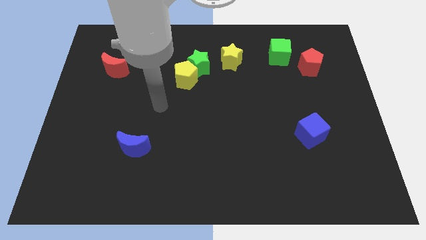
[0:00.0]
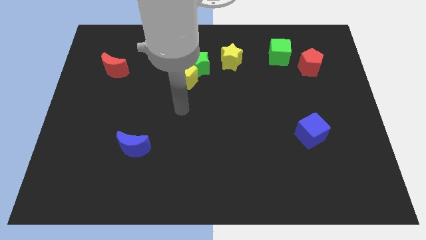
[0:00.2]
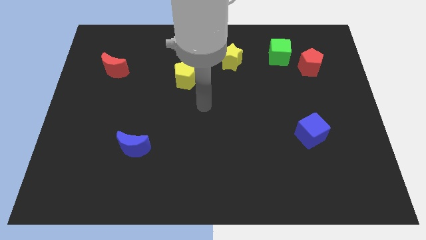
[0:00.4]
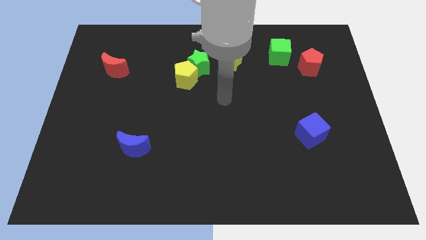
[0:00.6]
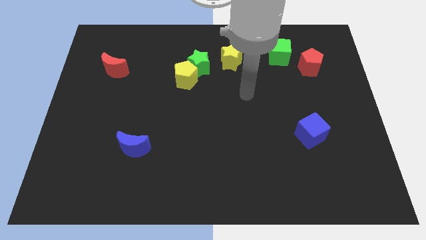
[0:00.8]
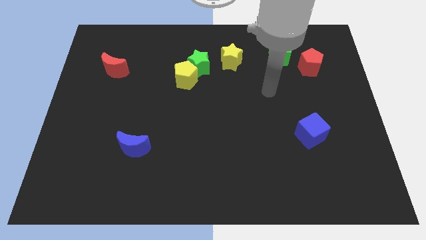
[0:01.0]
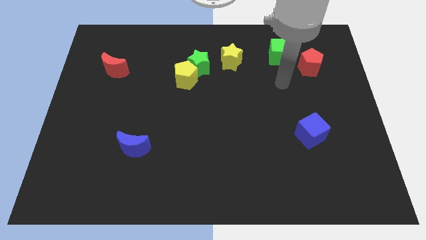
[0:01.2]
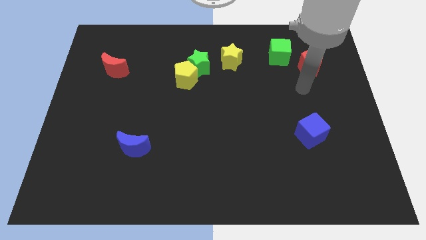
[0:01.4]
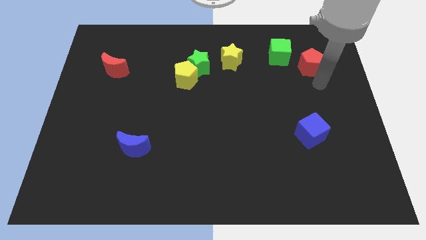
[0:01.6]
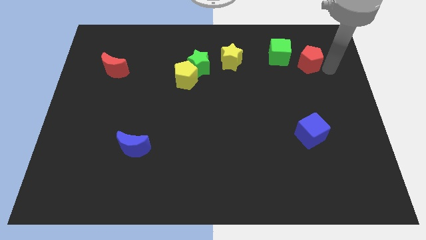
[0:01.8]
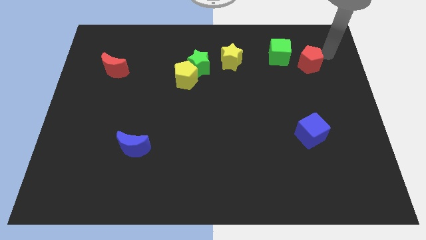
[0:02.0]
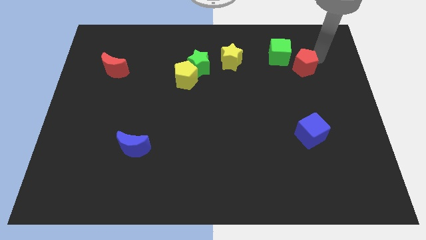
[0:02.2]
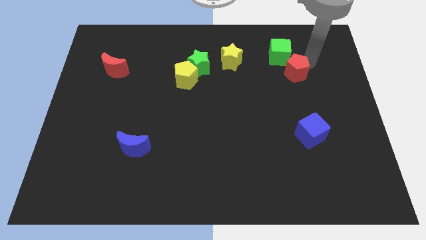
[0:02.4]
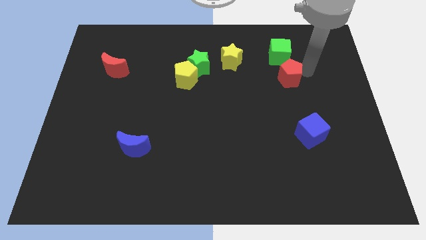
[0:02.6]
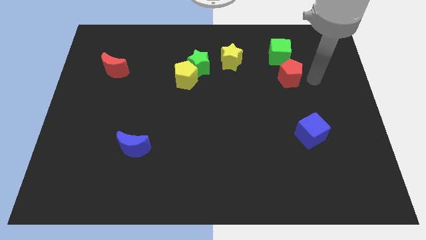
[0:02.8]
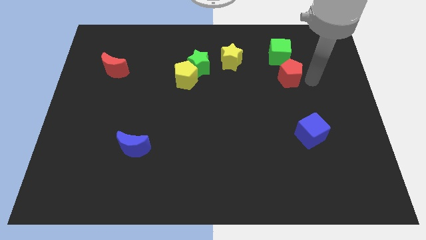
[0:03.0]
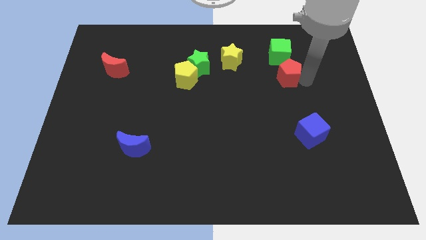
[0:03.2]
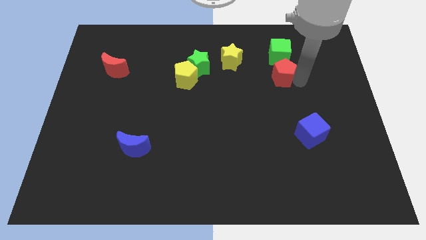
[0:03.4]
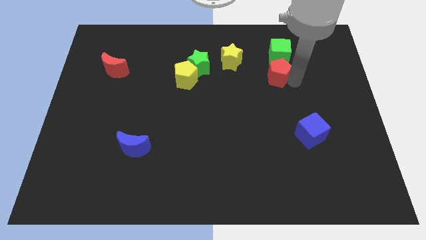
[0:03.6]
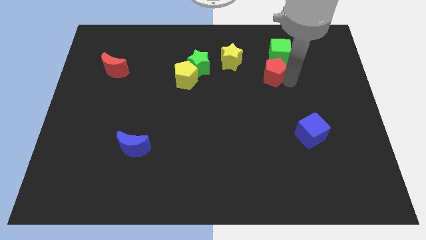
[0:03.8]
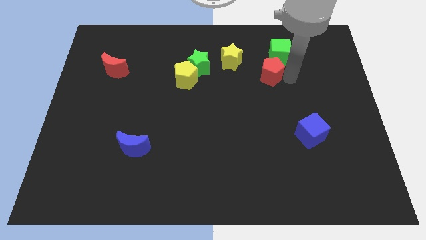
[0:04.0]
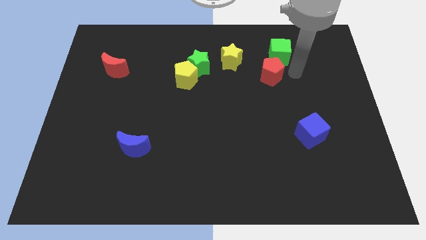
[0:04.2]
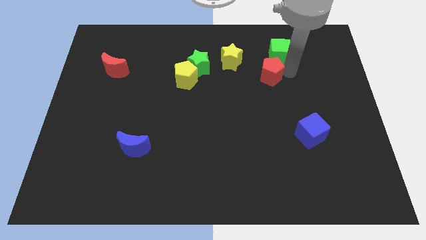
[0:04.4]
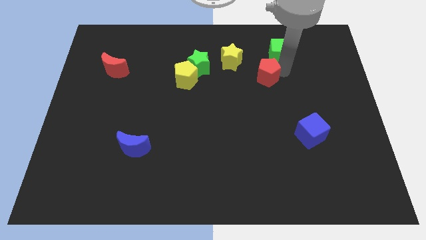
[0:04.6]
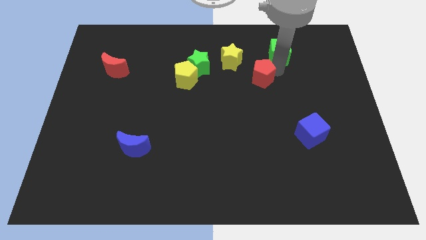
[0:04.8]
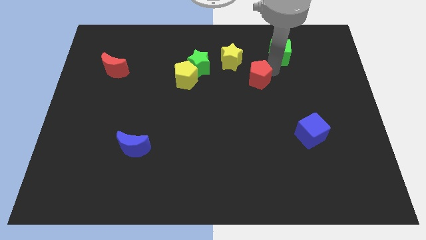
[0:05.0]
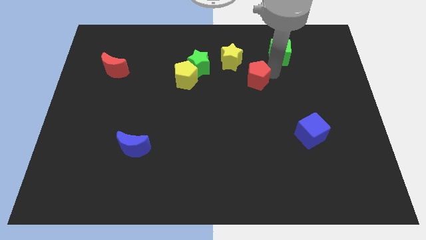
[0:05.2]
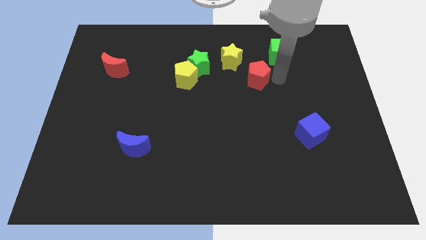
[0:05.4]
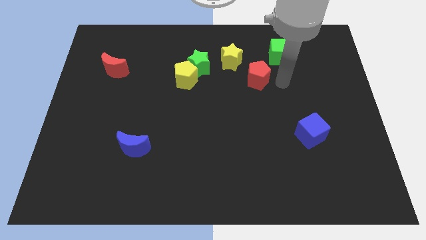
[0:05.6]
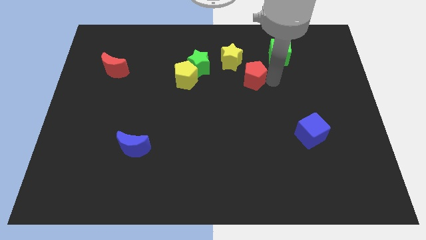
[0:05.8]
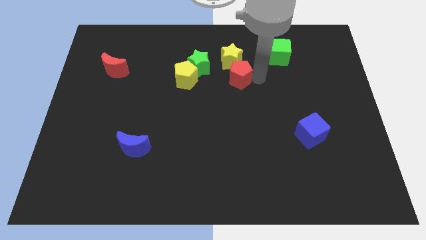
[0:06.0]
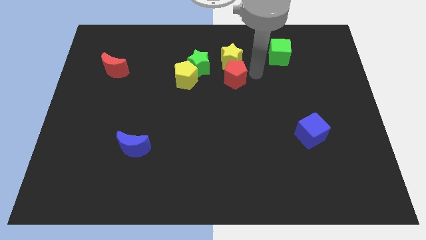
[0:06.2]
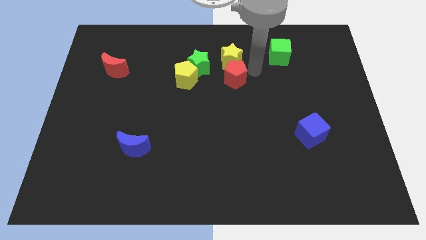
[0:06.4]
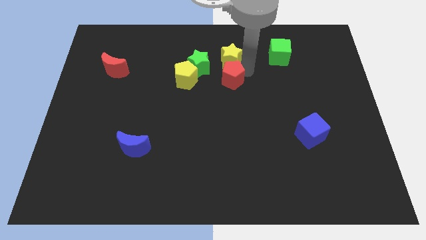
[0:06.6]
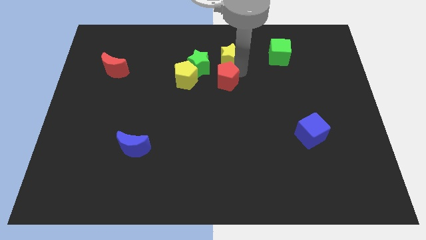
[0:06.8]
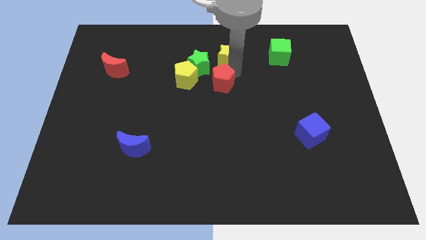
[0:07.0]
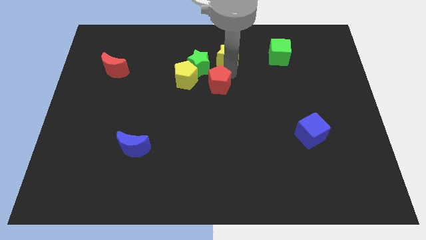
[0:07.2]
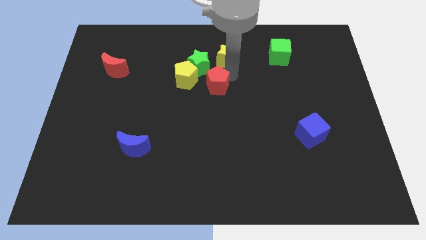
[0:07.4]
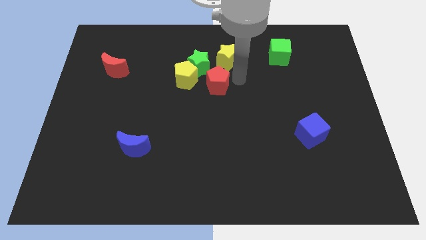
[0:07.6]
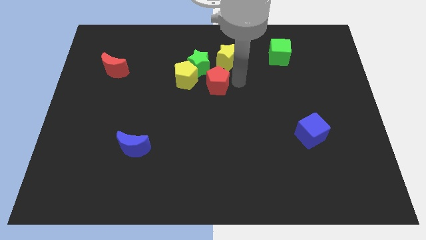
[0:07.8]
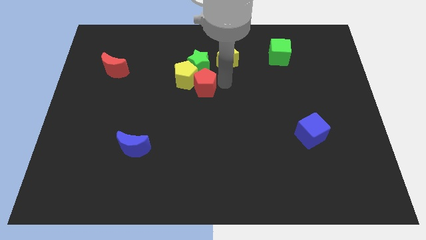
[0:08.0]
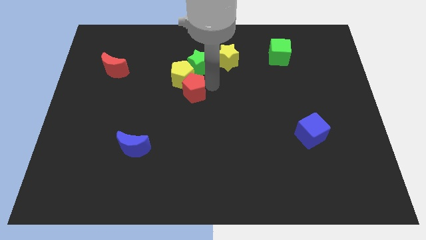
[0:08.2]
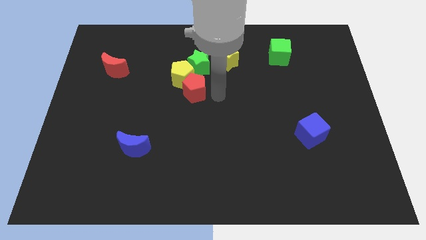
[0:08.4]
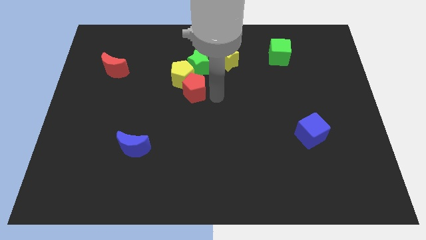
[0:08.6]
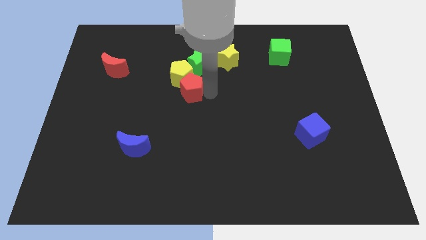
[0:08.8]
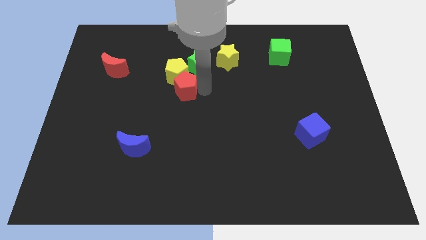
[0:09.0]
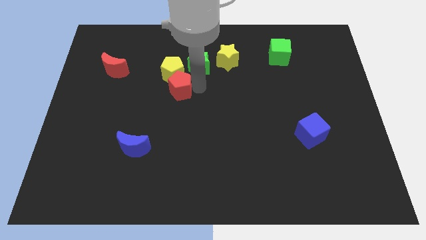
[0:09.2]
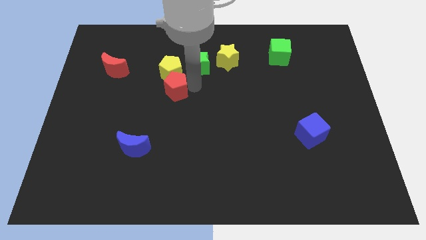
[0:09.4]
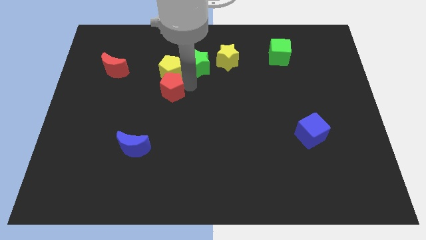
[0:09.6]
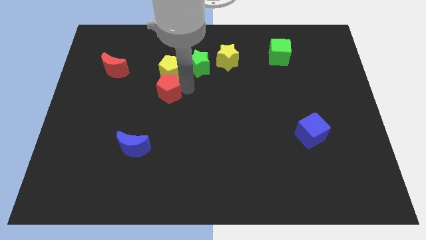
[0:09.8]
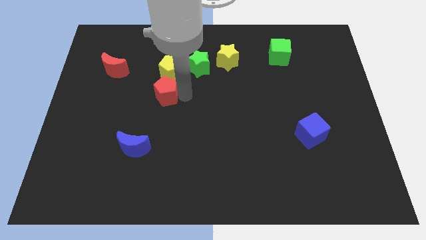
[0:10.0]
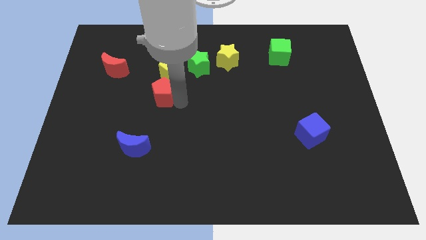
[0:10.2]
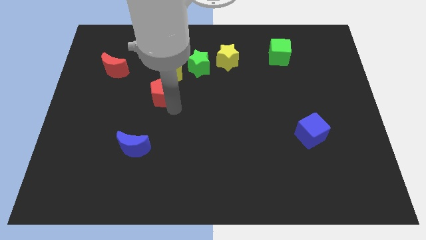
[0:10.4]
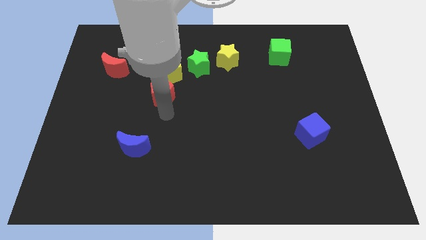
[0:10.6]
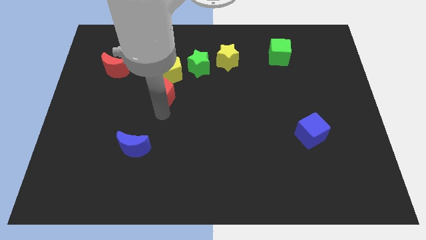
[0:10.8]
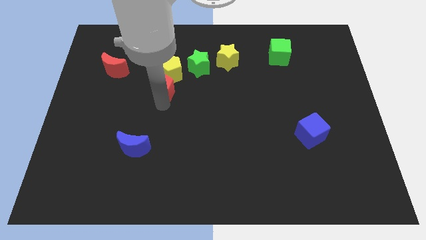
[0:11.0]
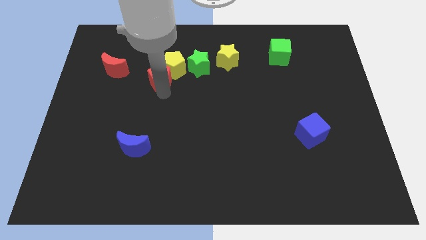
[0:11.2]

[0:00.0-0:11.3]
push the red pentagon right of the red moon

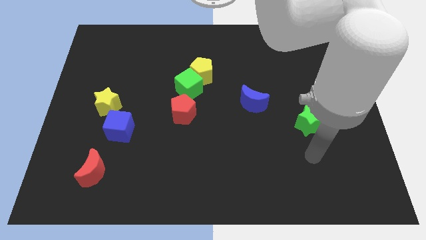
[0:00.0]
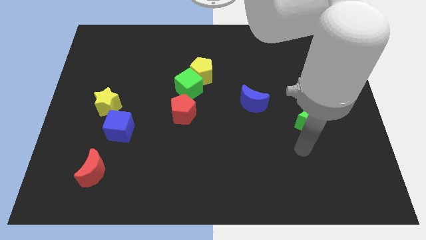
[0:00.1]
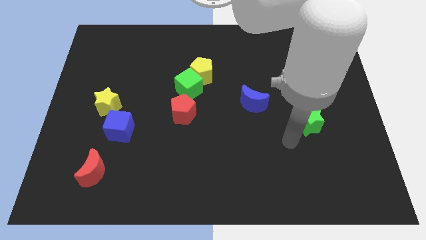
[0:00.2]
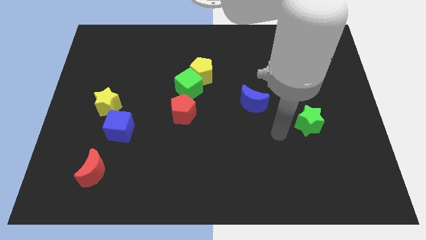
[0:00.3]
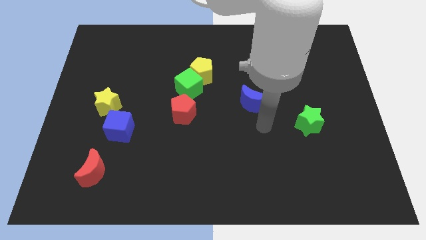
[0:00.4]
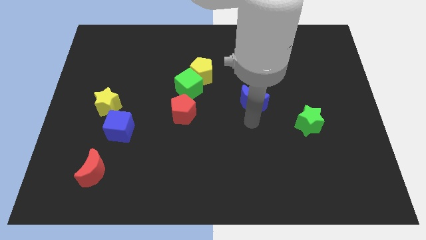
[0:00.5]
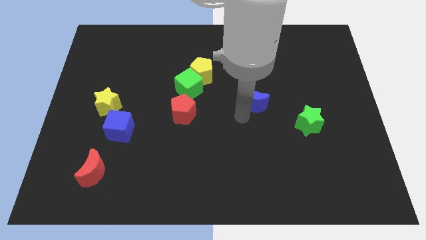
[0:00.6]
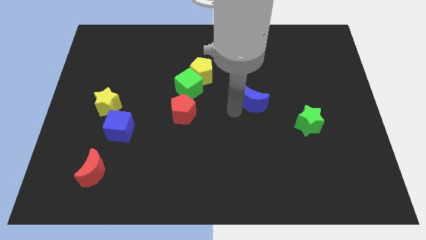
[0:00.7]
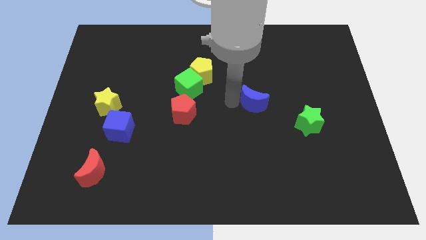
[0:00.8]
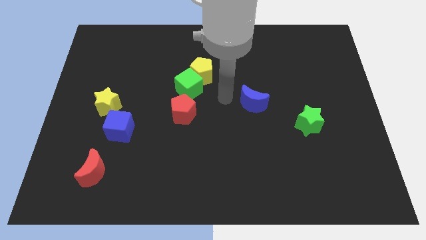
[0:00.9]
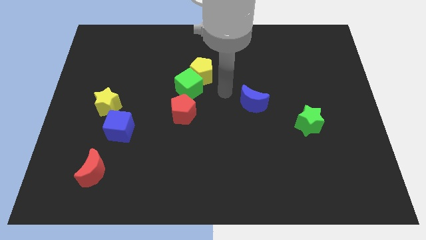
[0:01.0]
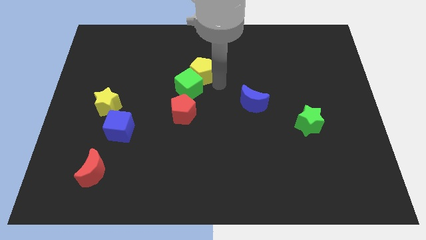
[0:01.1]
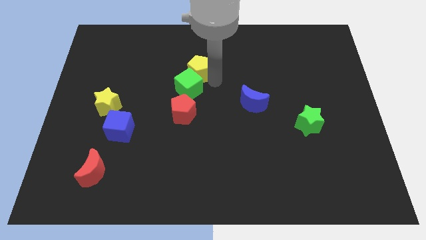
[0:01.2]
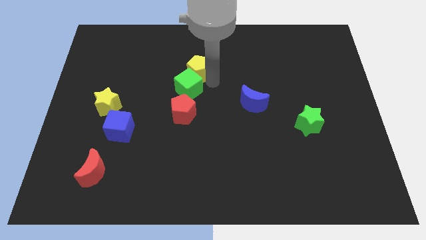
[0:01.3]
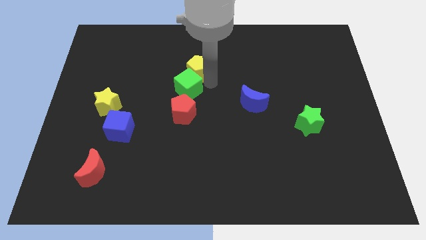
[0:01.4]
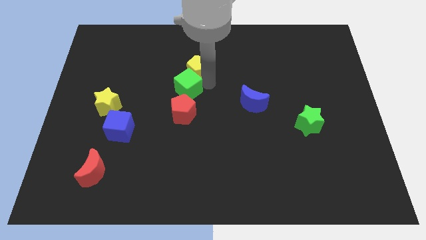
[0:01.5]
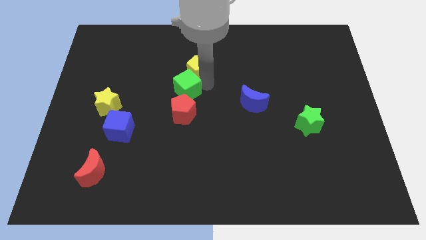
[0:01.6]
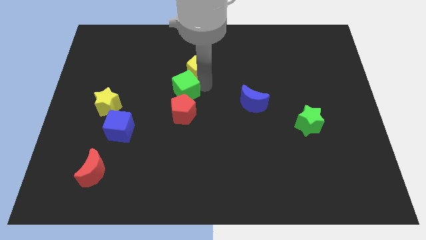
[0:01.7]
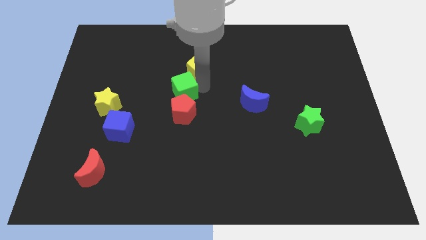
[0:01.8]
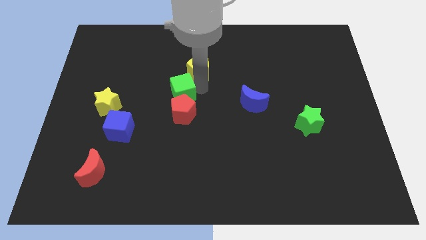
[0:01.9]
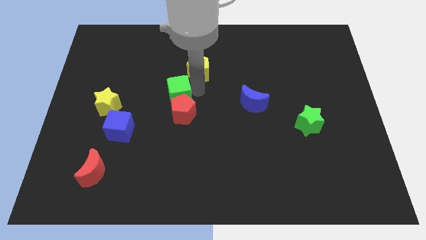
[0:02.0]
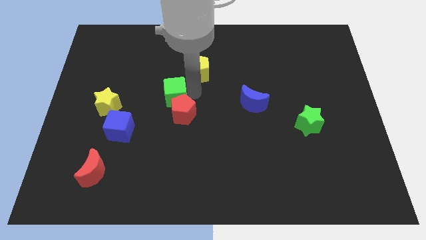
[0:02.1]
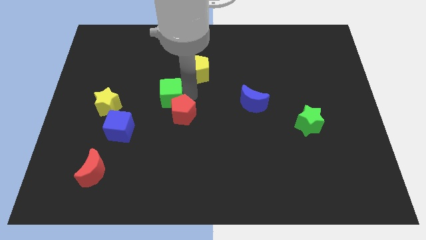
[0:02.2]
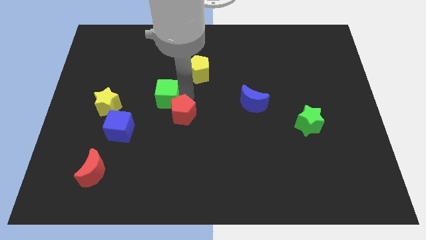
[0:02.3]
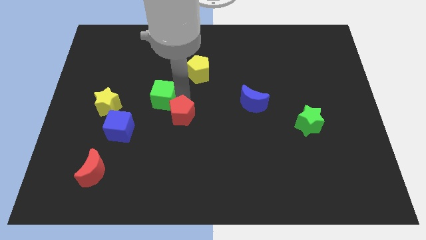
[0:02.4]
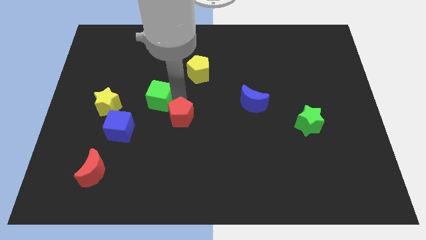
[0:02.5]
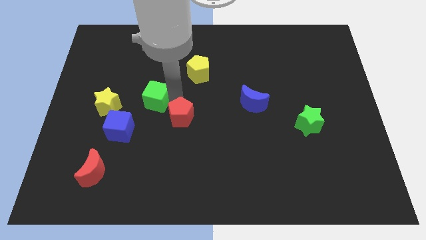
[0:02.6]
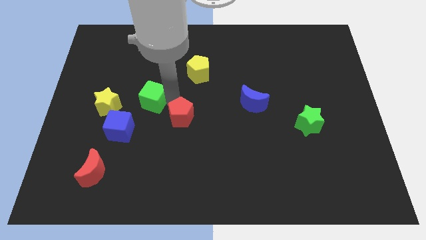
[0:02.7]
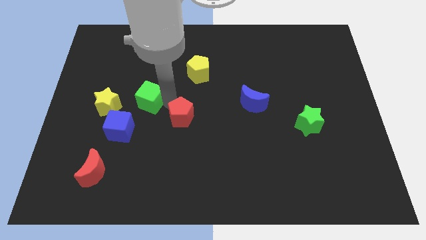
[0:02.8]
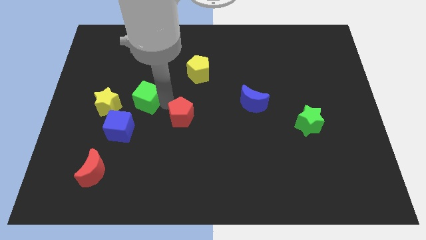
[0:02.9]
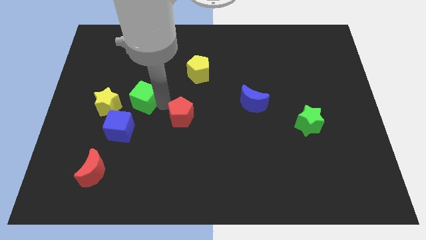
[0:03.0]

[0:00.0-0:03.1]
slide the green cube to the top right side of the yellow star
